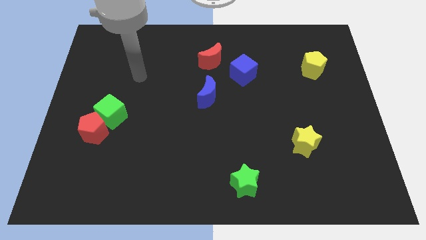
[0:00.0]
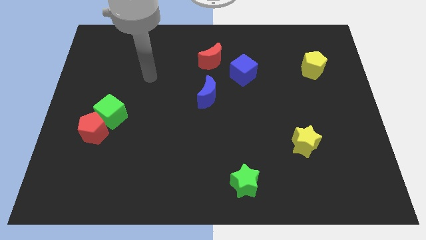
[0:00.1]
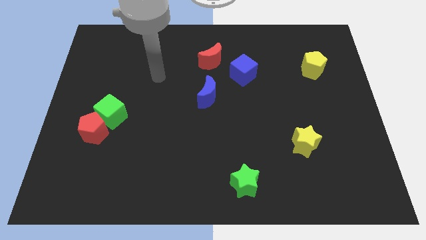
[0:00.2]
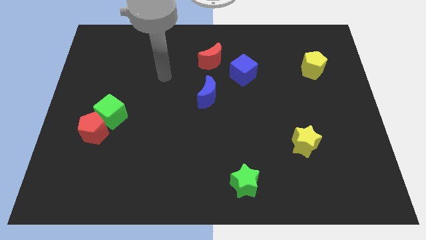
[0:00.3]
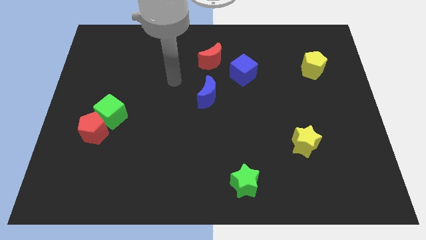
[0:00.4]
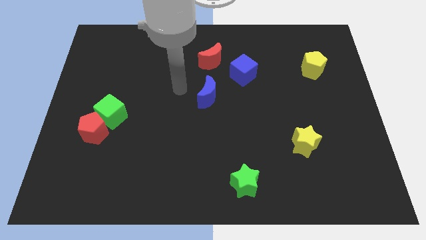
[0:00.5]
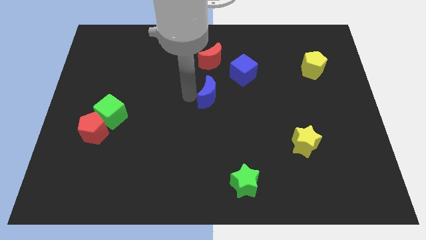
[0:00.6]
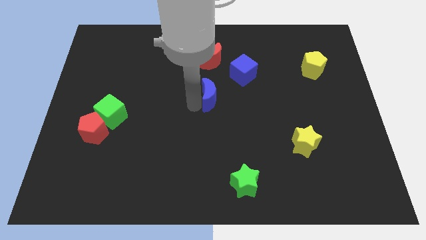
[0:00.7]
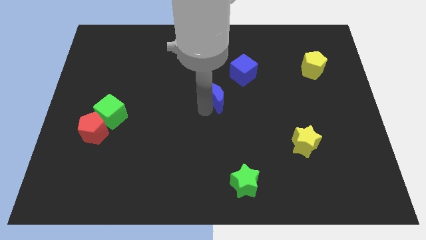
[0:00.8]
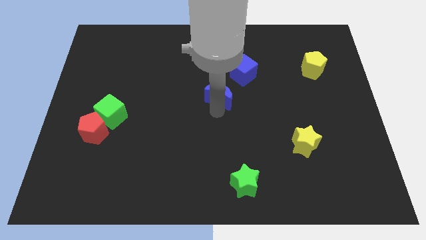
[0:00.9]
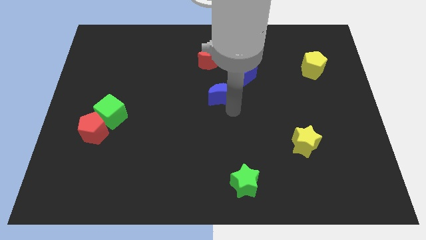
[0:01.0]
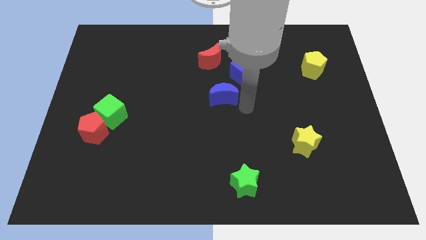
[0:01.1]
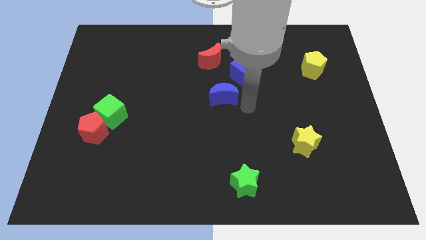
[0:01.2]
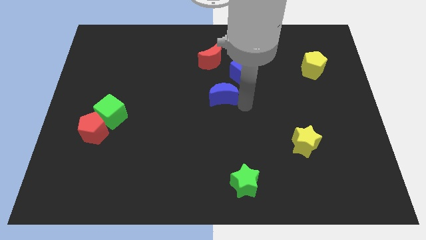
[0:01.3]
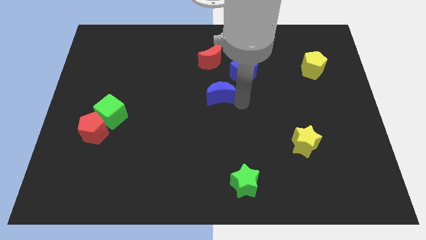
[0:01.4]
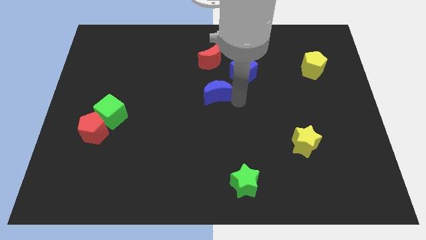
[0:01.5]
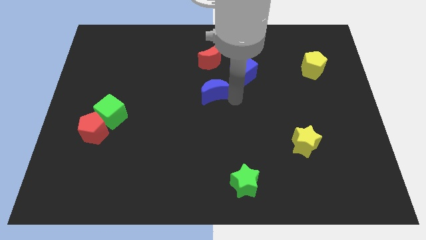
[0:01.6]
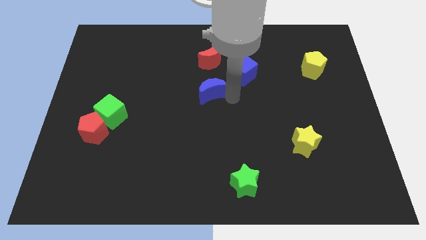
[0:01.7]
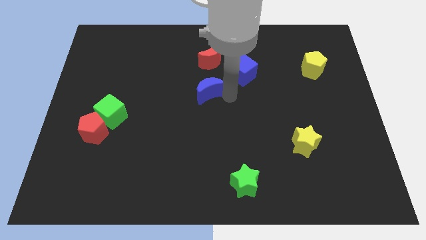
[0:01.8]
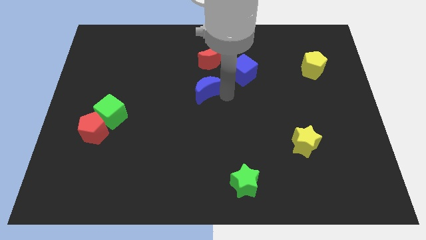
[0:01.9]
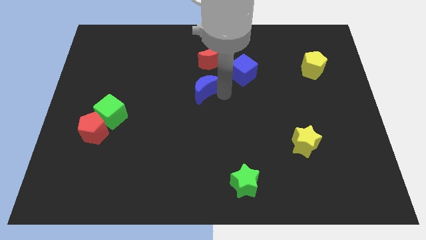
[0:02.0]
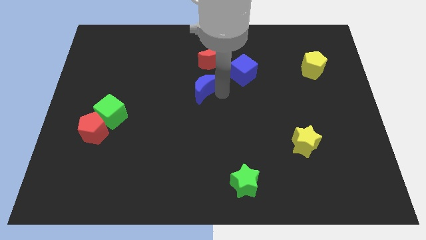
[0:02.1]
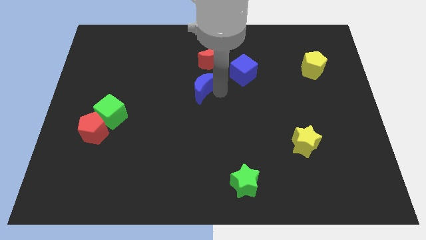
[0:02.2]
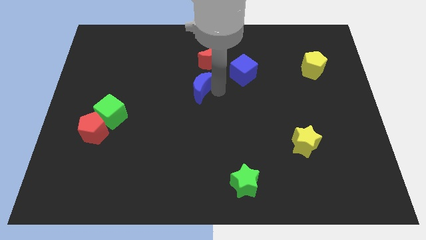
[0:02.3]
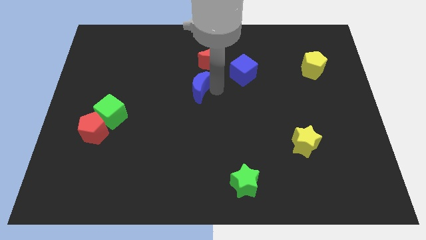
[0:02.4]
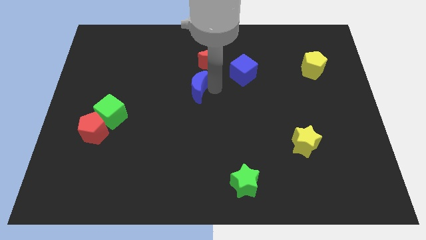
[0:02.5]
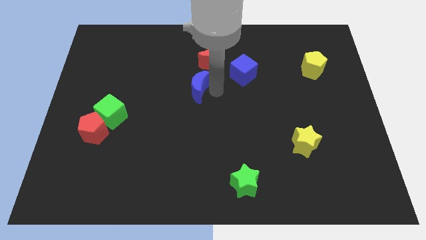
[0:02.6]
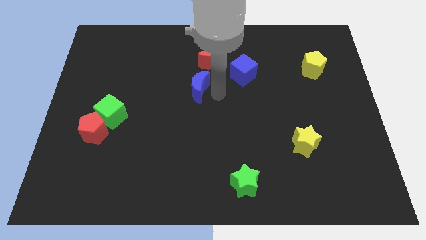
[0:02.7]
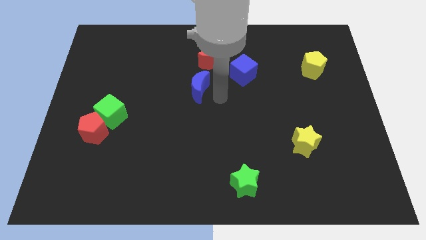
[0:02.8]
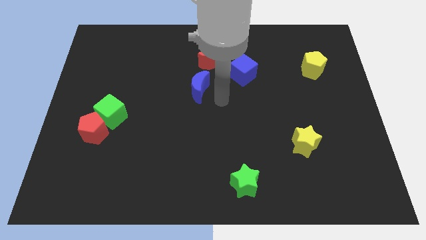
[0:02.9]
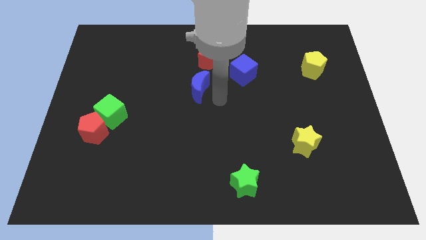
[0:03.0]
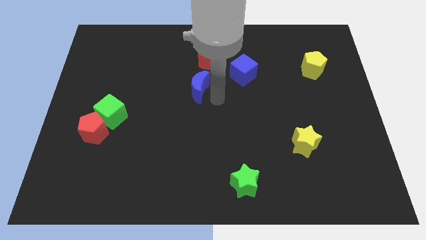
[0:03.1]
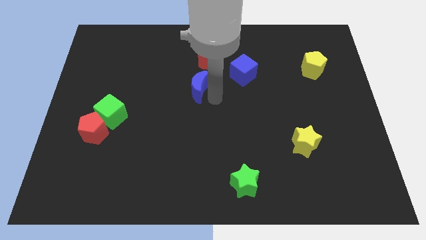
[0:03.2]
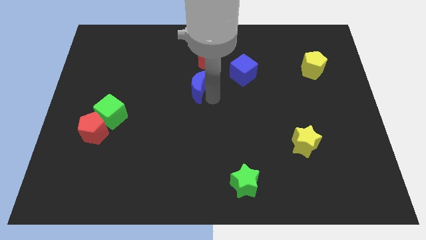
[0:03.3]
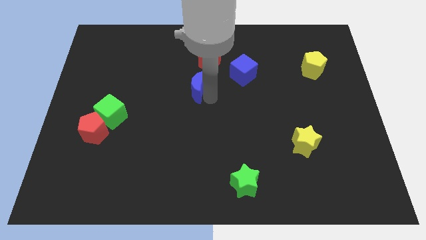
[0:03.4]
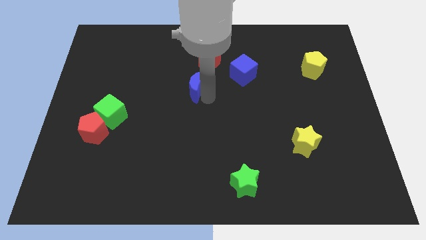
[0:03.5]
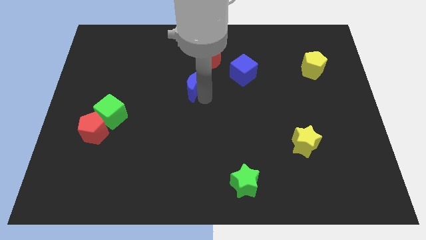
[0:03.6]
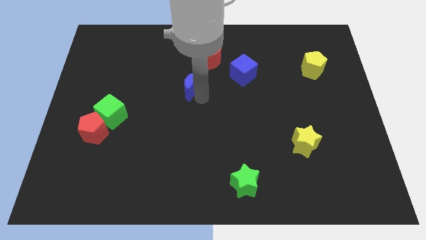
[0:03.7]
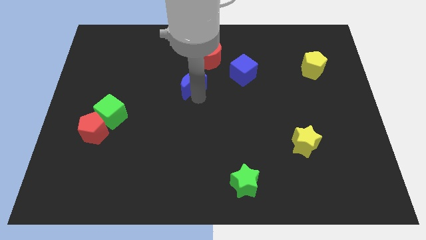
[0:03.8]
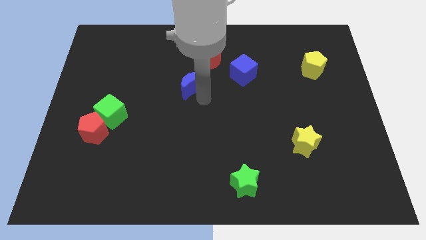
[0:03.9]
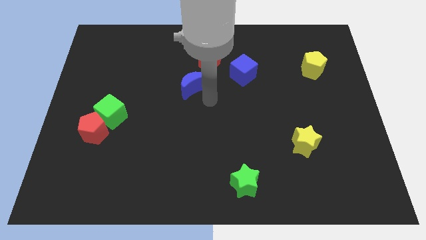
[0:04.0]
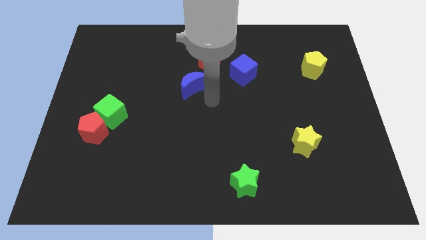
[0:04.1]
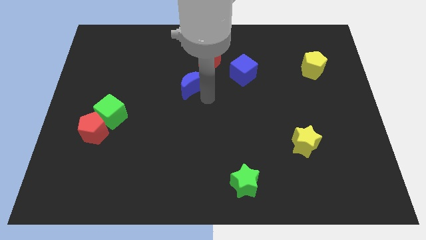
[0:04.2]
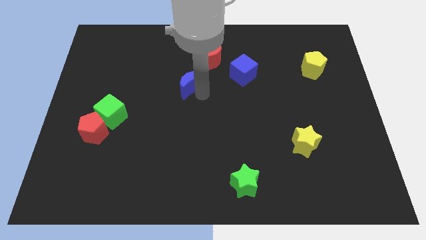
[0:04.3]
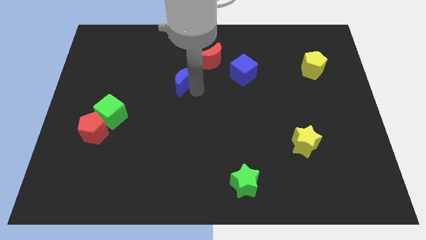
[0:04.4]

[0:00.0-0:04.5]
move the blue moon somewhat diagonally up and to the left

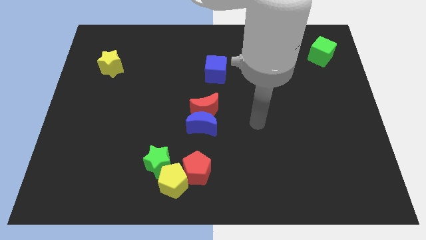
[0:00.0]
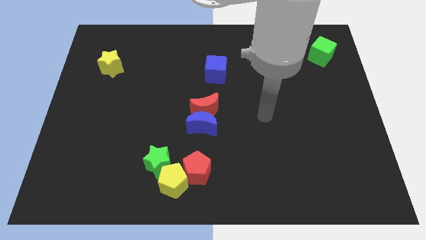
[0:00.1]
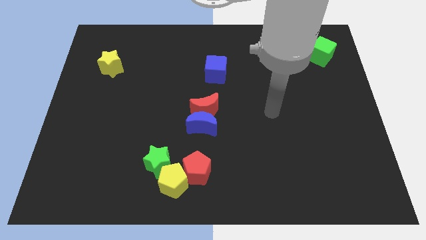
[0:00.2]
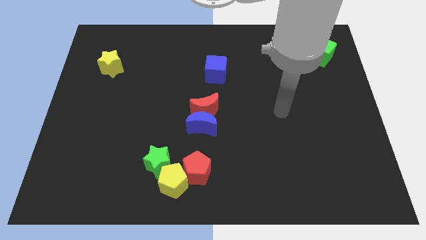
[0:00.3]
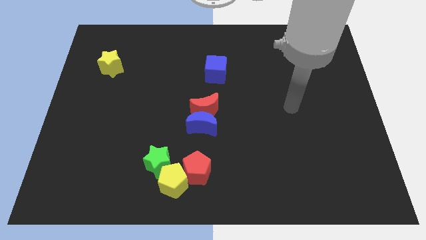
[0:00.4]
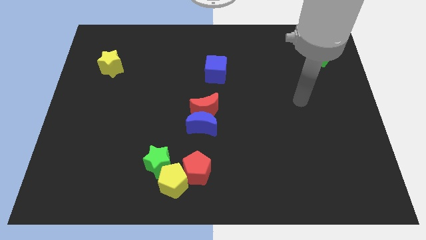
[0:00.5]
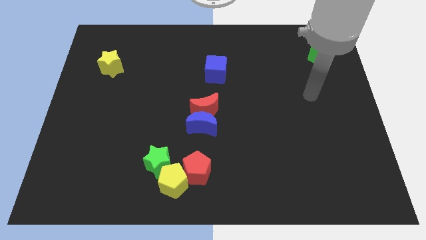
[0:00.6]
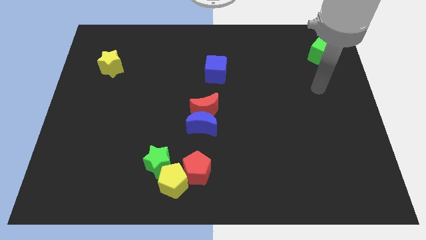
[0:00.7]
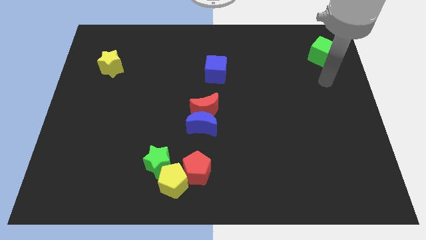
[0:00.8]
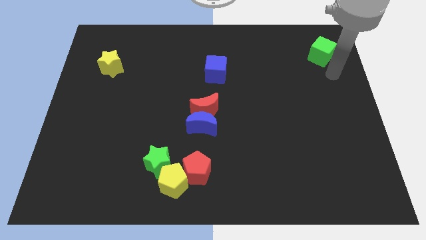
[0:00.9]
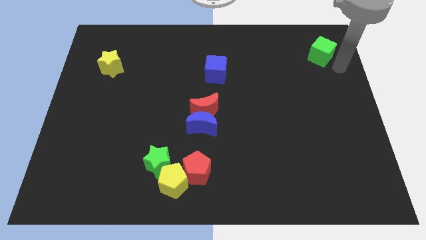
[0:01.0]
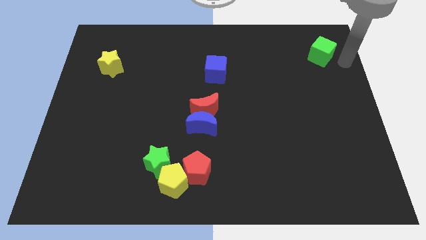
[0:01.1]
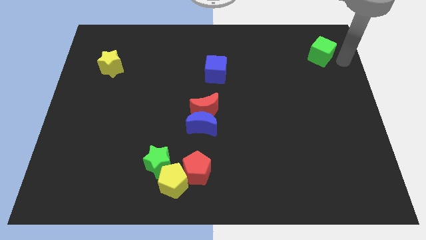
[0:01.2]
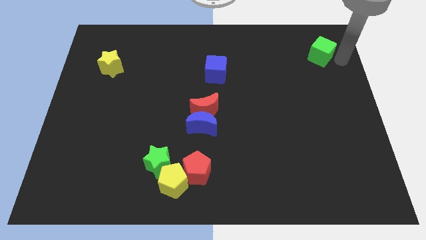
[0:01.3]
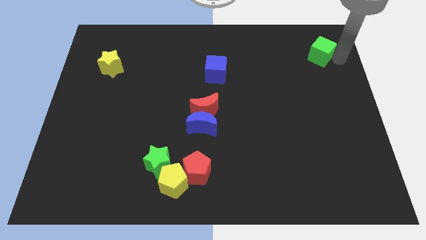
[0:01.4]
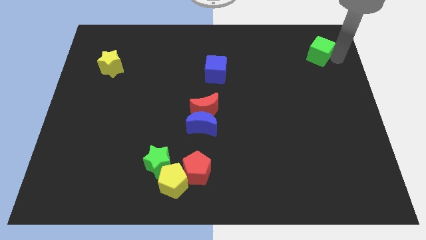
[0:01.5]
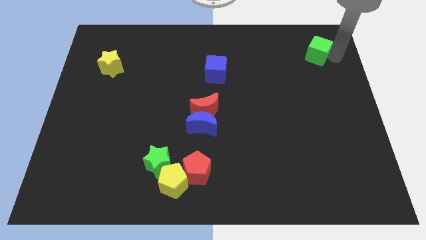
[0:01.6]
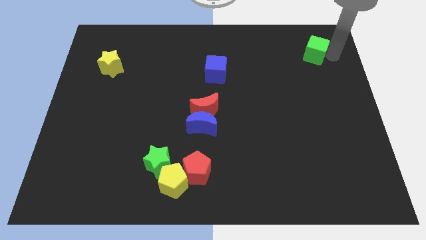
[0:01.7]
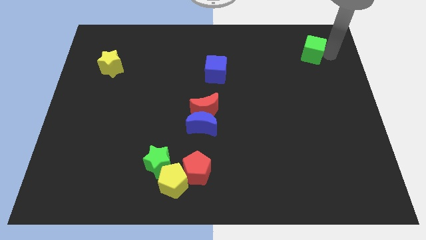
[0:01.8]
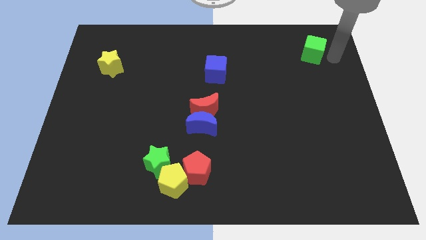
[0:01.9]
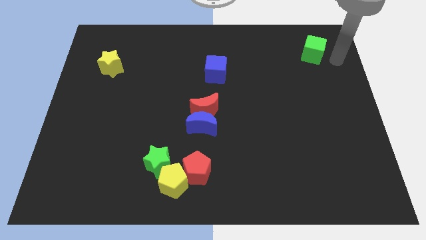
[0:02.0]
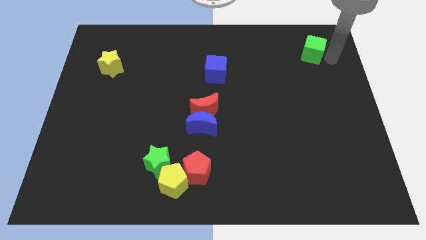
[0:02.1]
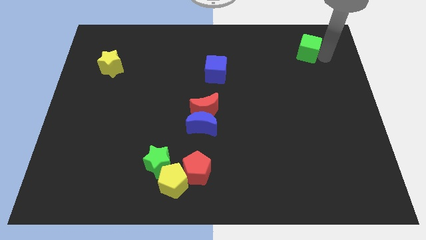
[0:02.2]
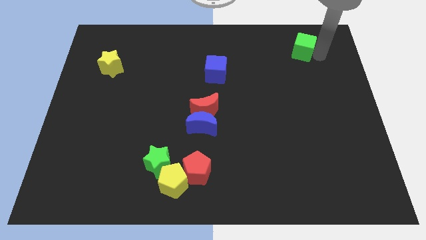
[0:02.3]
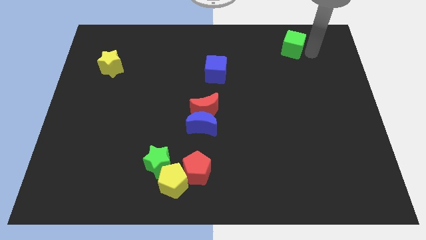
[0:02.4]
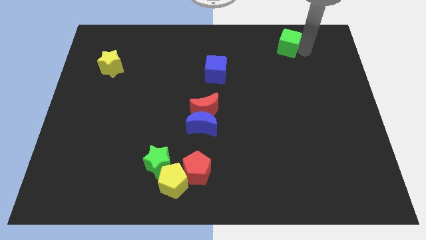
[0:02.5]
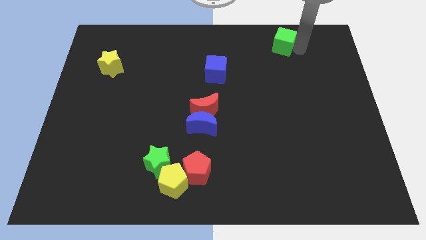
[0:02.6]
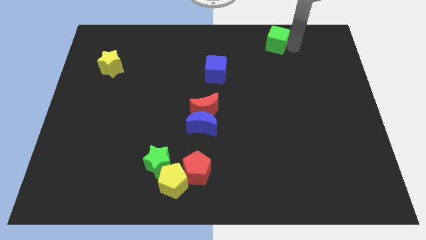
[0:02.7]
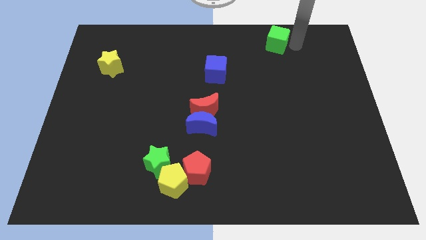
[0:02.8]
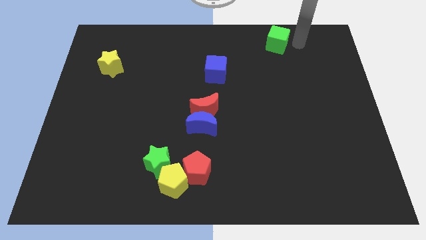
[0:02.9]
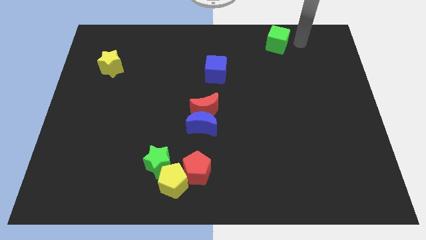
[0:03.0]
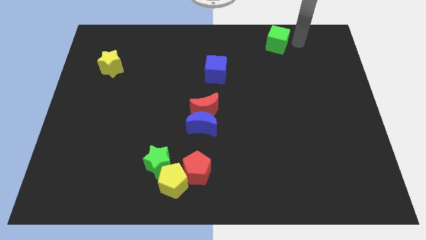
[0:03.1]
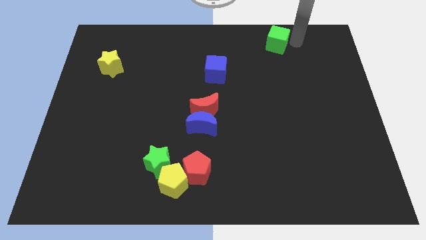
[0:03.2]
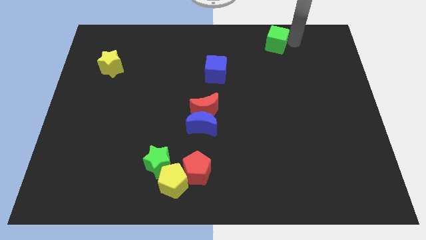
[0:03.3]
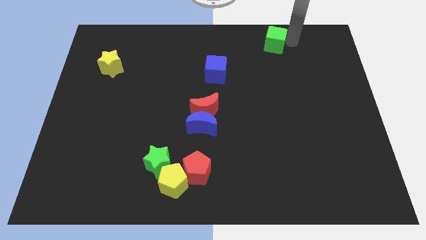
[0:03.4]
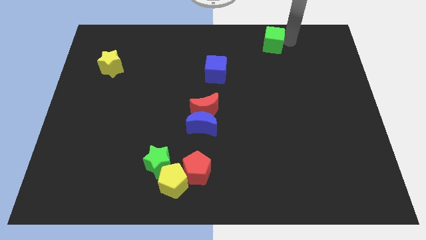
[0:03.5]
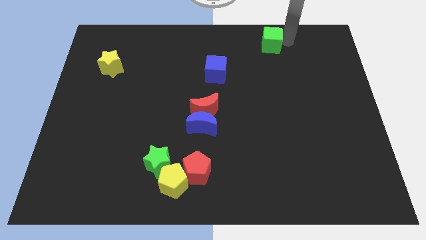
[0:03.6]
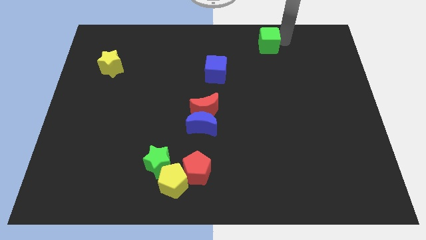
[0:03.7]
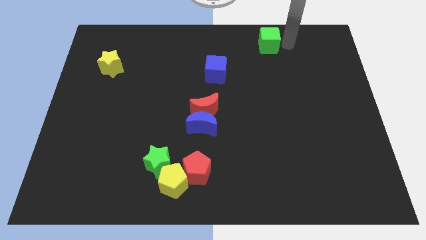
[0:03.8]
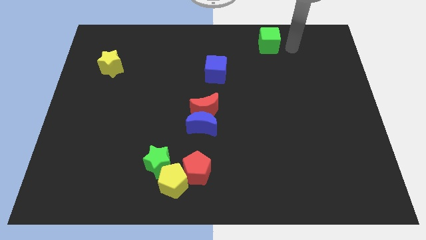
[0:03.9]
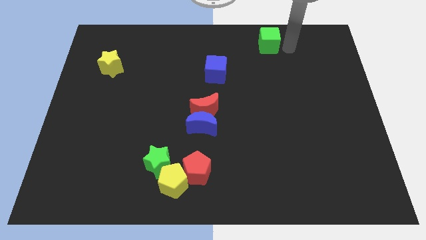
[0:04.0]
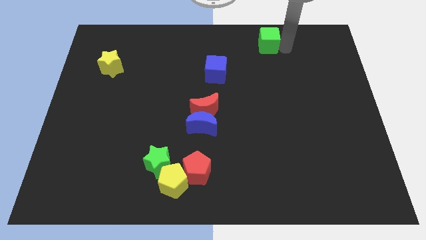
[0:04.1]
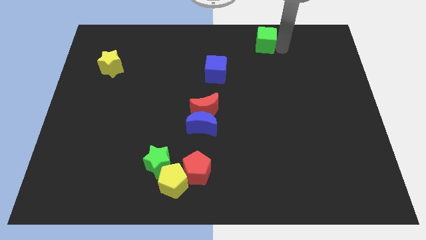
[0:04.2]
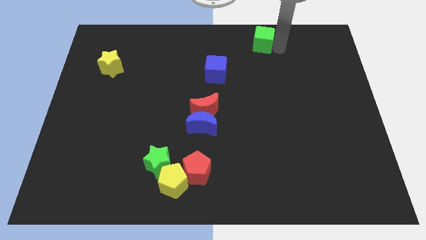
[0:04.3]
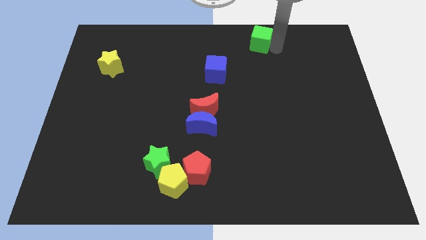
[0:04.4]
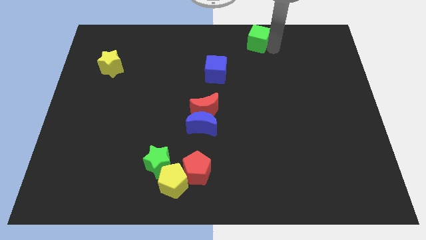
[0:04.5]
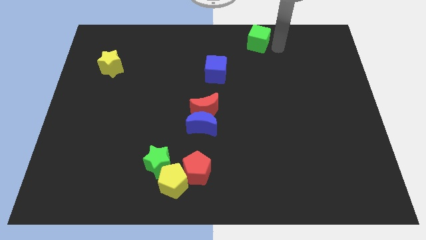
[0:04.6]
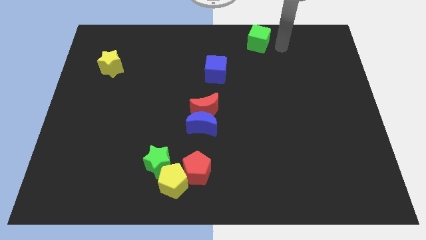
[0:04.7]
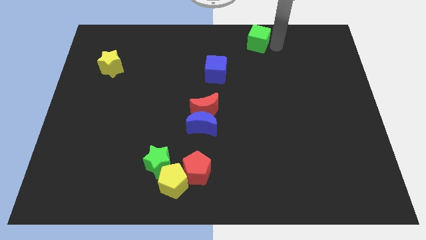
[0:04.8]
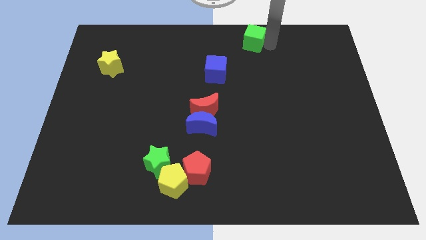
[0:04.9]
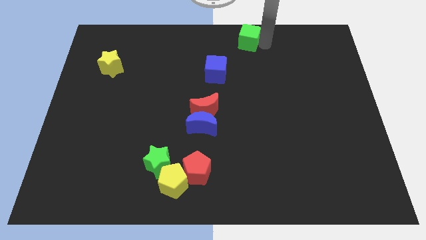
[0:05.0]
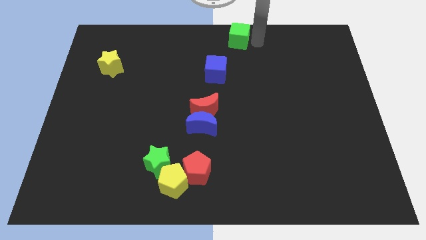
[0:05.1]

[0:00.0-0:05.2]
push the green cube left
